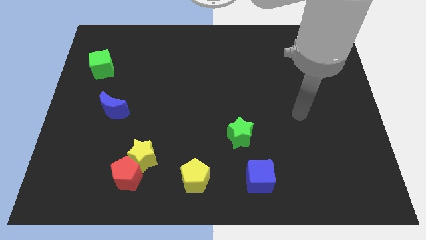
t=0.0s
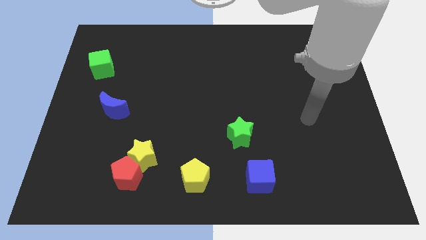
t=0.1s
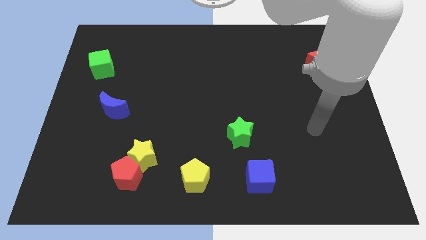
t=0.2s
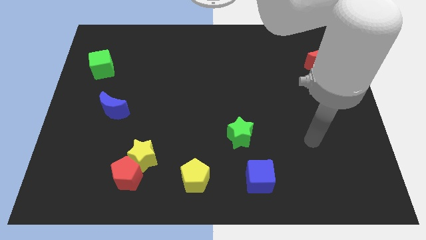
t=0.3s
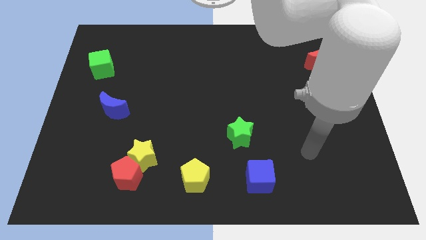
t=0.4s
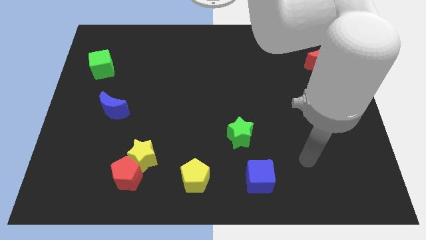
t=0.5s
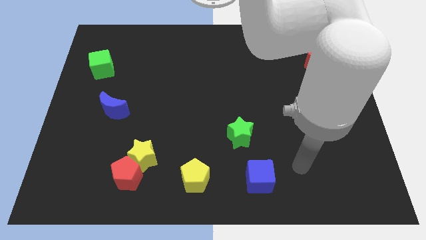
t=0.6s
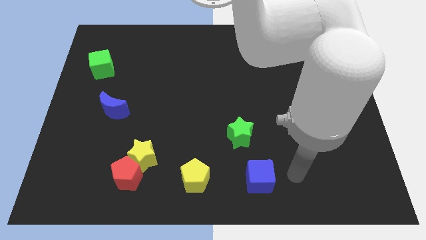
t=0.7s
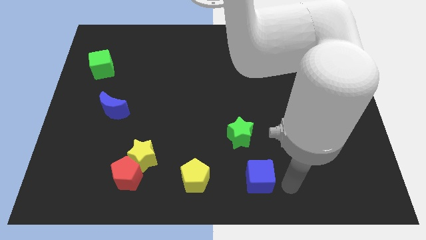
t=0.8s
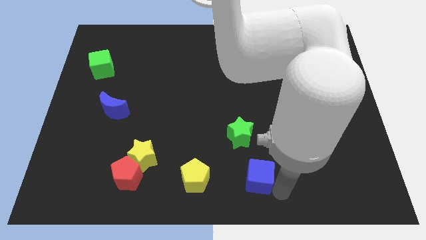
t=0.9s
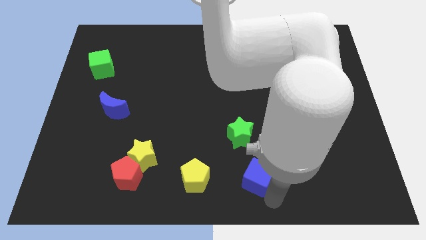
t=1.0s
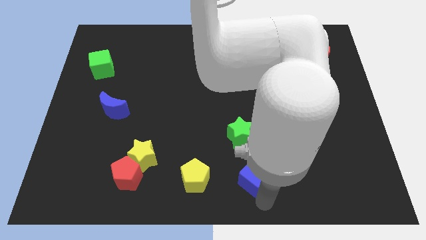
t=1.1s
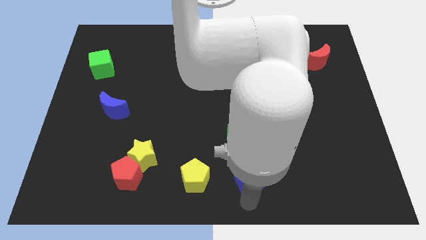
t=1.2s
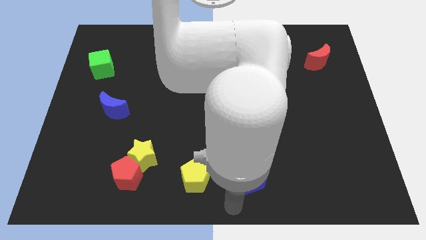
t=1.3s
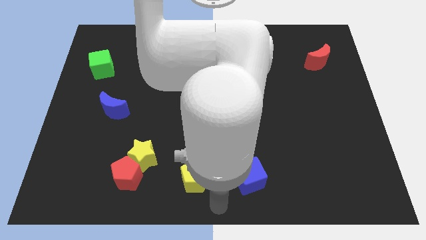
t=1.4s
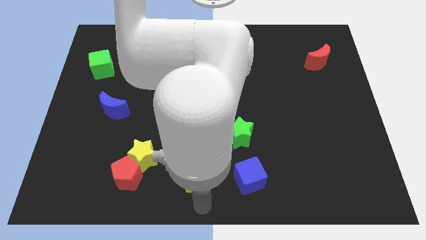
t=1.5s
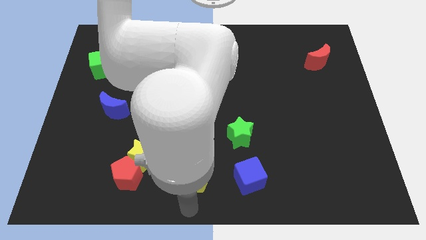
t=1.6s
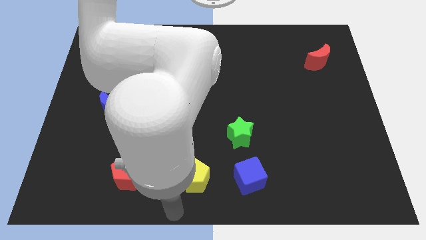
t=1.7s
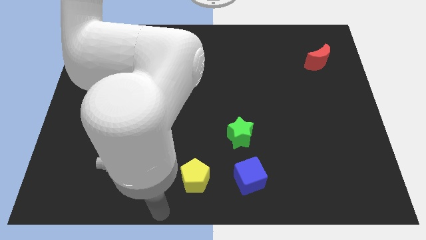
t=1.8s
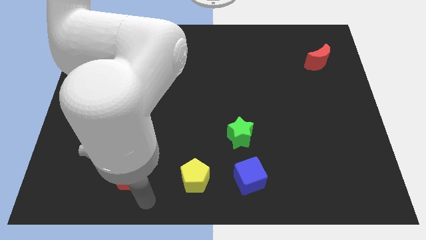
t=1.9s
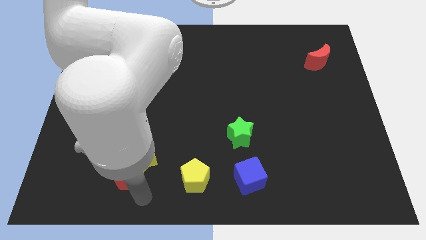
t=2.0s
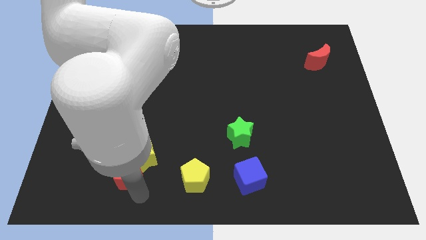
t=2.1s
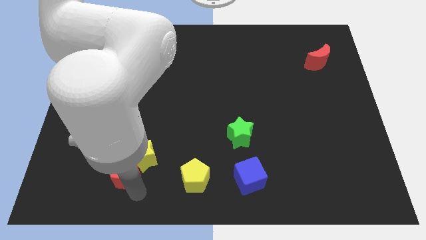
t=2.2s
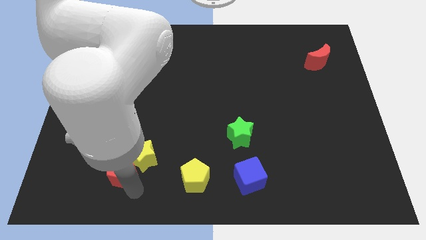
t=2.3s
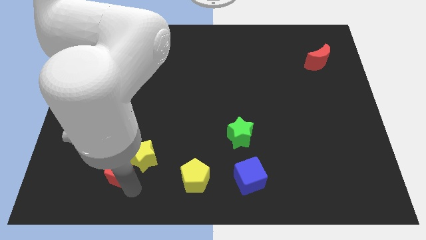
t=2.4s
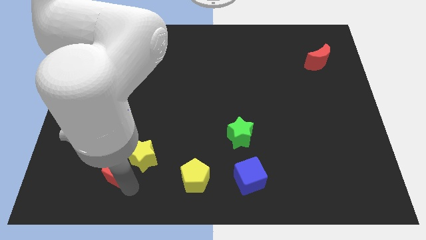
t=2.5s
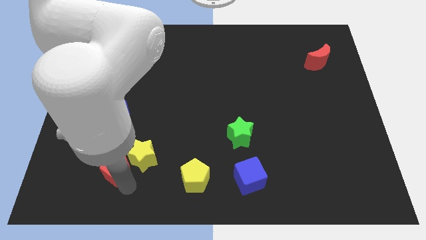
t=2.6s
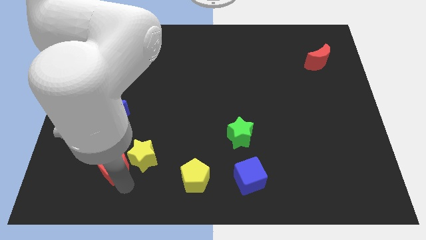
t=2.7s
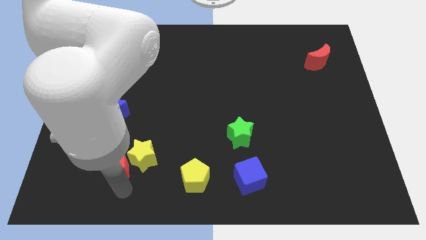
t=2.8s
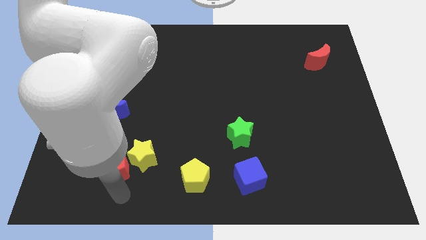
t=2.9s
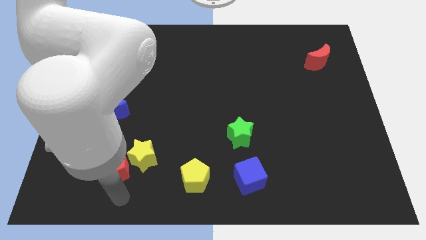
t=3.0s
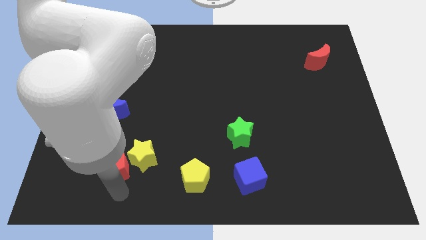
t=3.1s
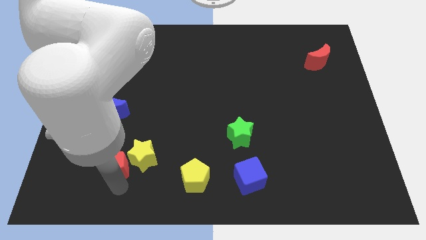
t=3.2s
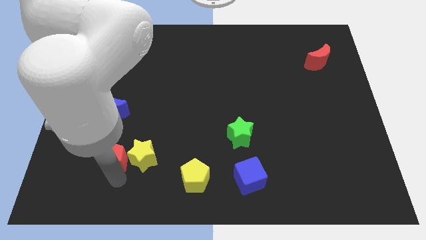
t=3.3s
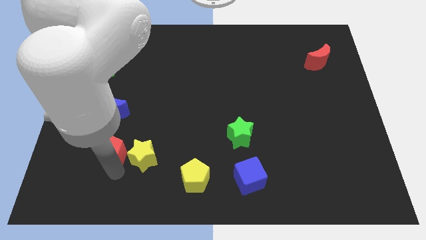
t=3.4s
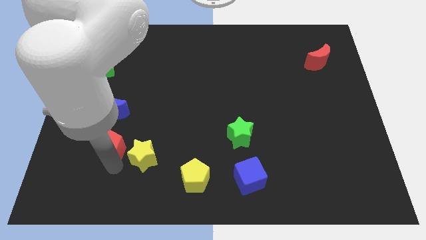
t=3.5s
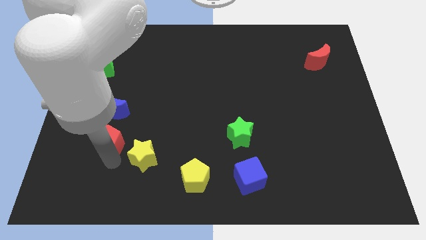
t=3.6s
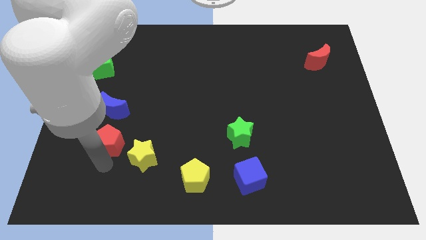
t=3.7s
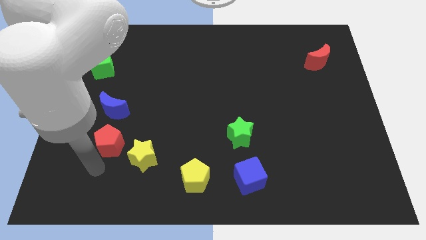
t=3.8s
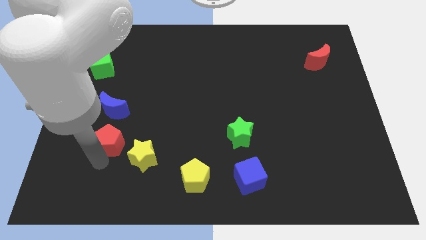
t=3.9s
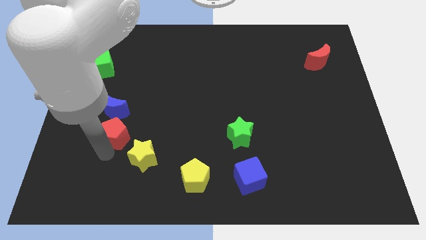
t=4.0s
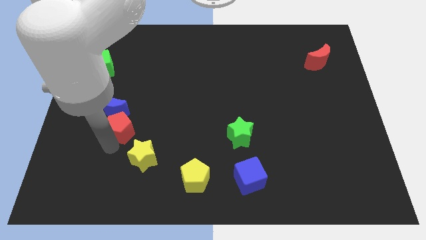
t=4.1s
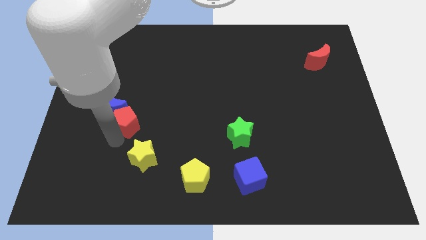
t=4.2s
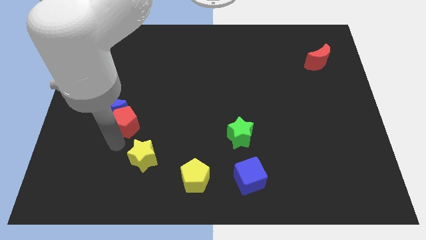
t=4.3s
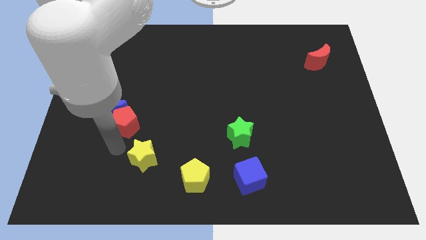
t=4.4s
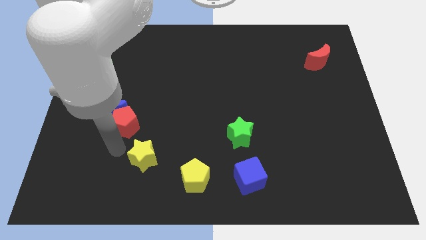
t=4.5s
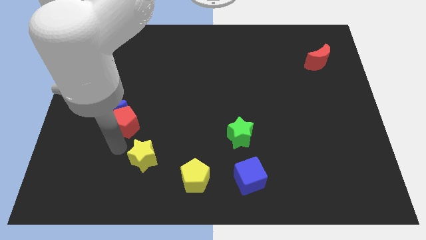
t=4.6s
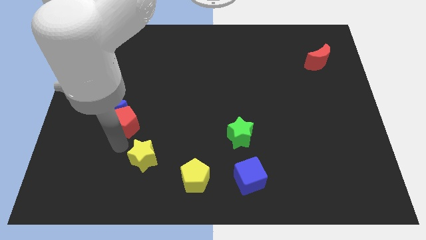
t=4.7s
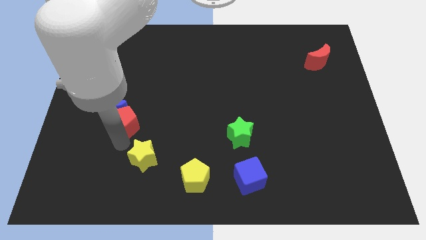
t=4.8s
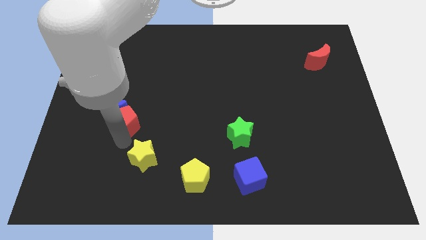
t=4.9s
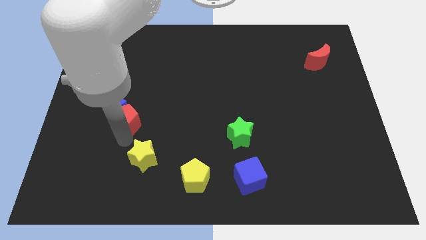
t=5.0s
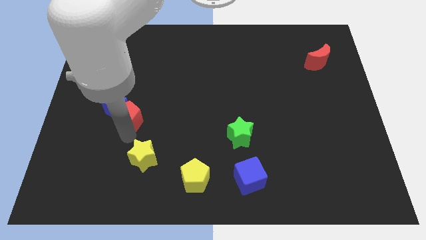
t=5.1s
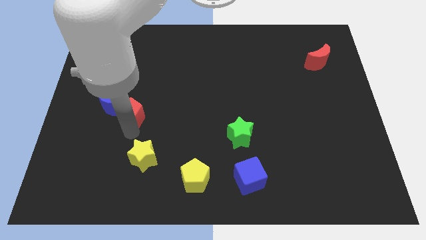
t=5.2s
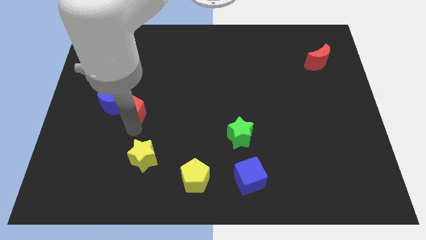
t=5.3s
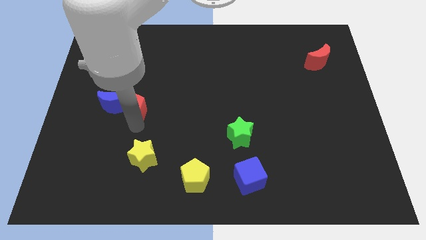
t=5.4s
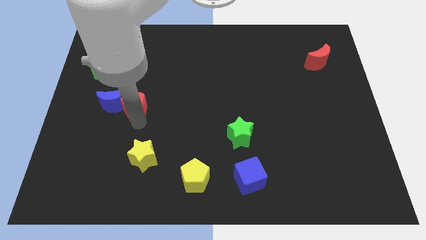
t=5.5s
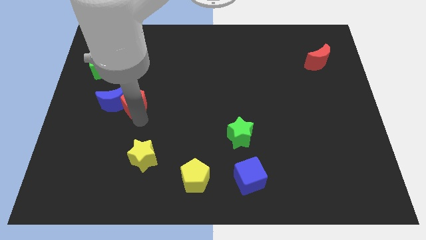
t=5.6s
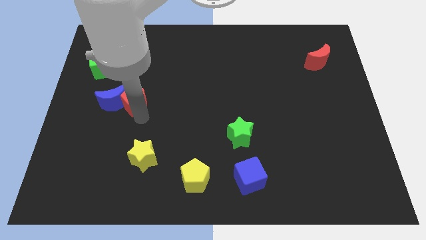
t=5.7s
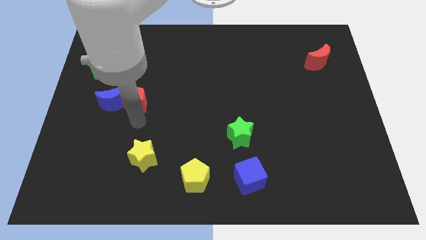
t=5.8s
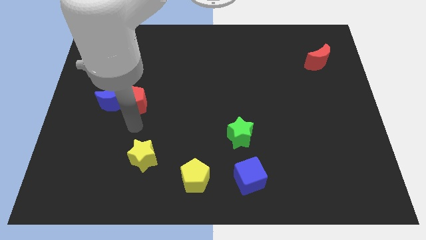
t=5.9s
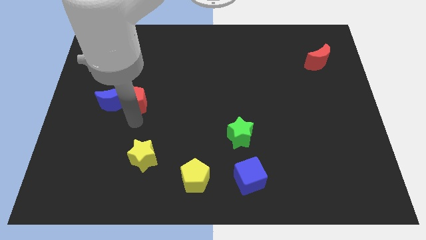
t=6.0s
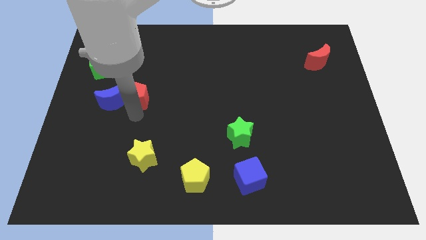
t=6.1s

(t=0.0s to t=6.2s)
slide the red pentagon up

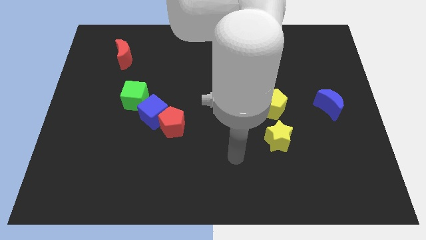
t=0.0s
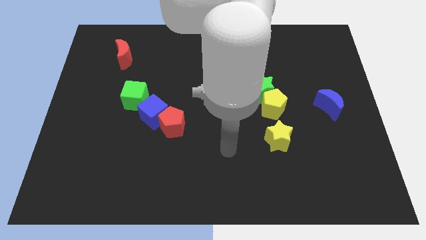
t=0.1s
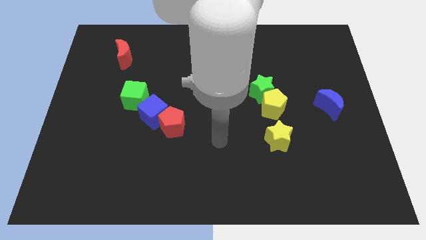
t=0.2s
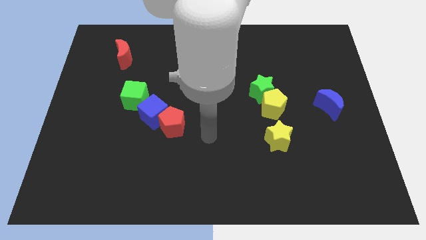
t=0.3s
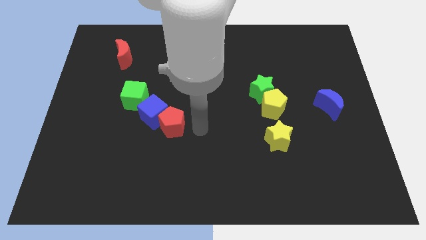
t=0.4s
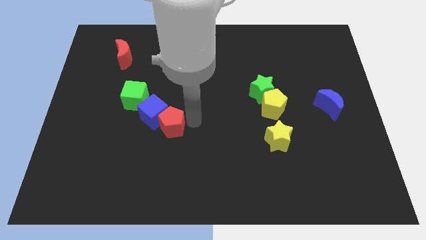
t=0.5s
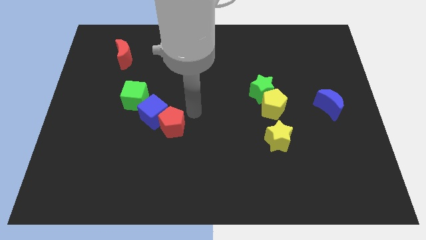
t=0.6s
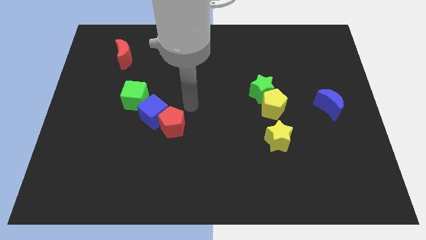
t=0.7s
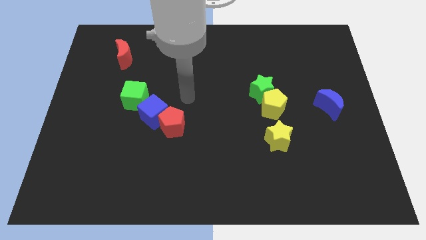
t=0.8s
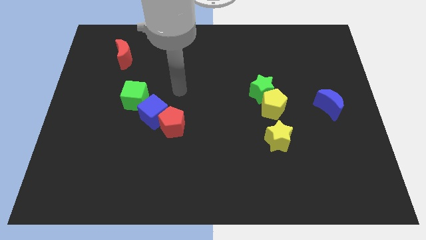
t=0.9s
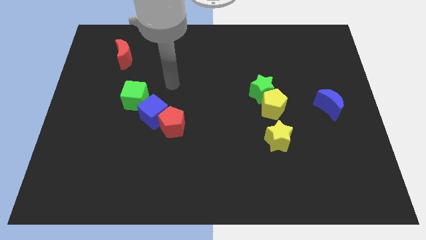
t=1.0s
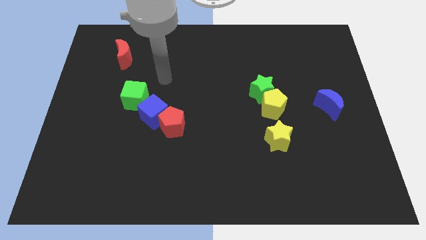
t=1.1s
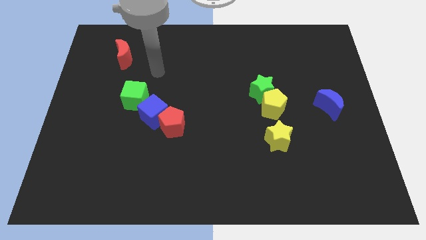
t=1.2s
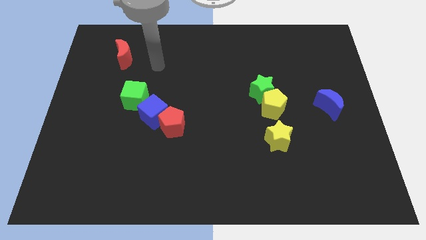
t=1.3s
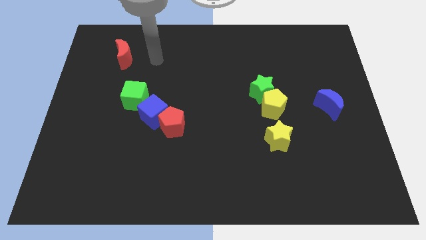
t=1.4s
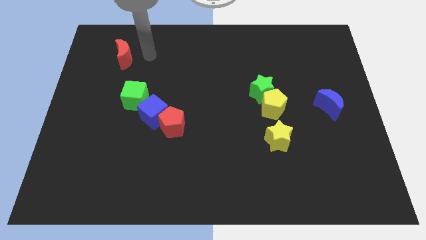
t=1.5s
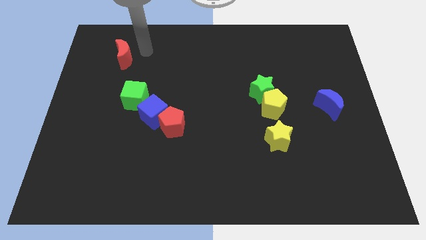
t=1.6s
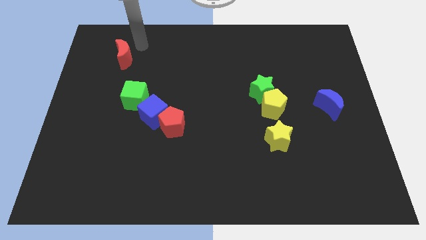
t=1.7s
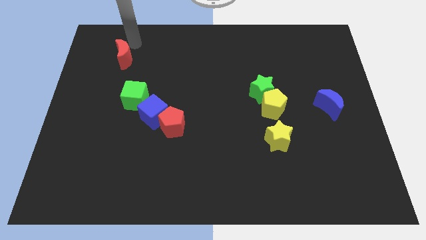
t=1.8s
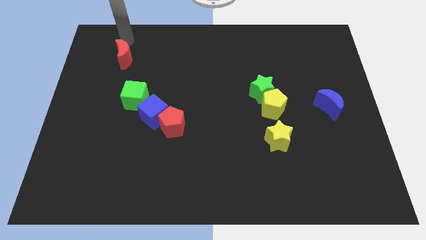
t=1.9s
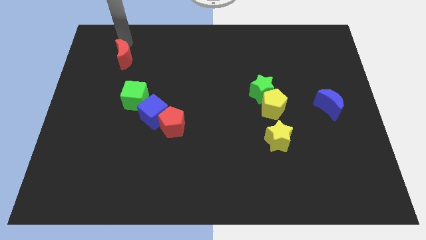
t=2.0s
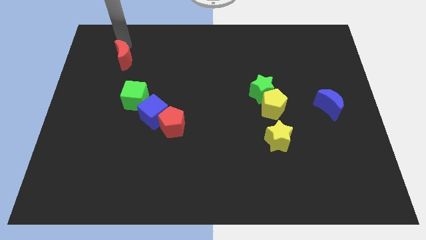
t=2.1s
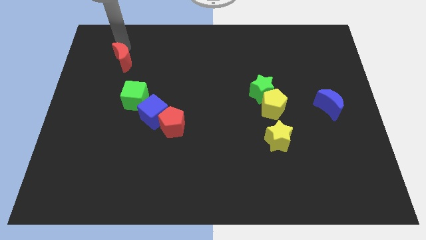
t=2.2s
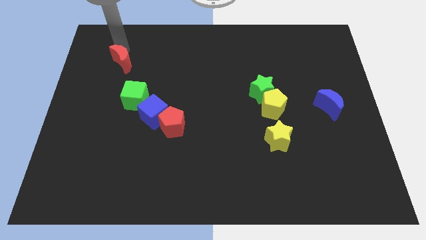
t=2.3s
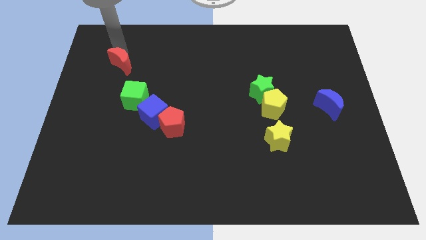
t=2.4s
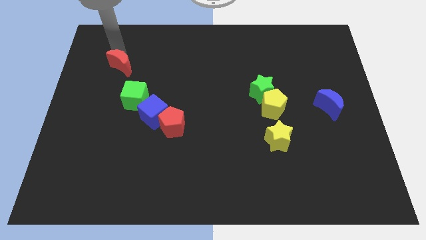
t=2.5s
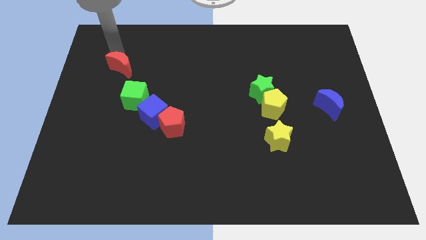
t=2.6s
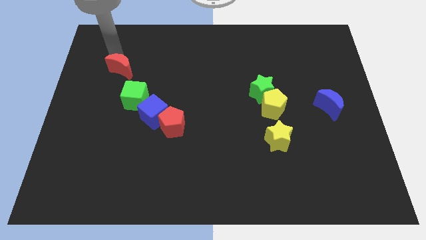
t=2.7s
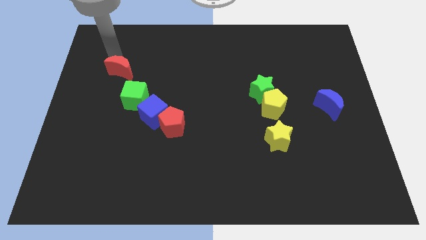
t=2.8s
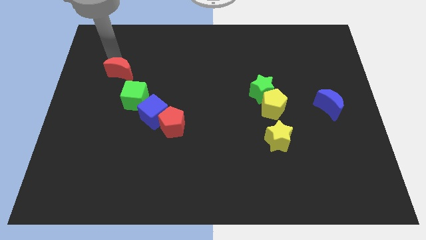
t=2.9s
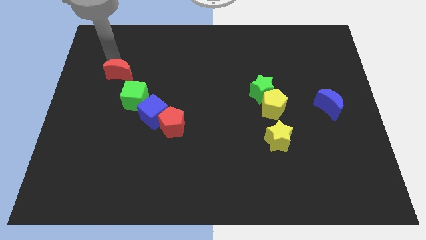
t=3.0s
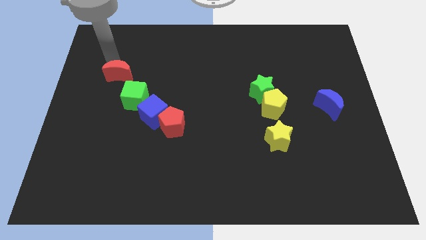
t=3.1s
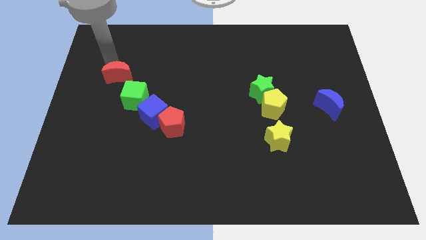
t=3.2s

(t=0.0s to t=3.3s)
slightly move the red moon downwards
